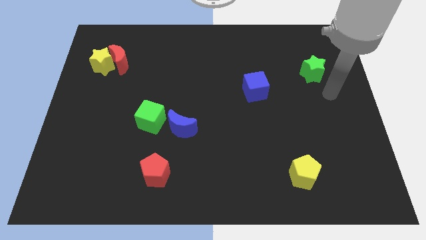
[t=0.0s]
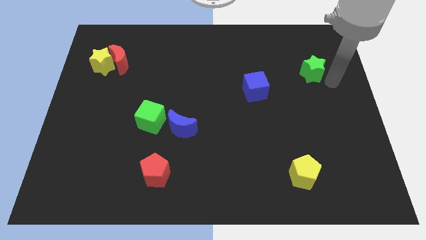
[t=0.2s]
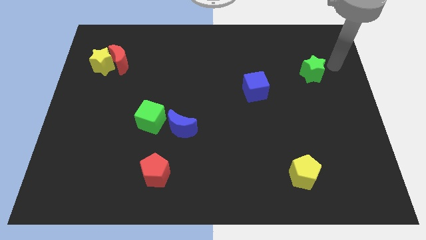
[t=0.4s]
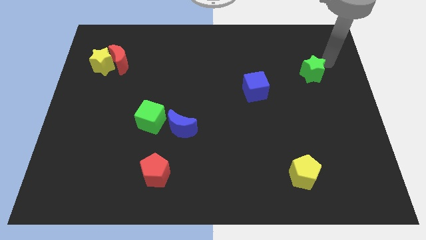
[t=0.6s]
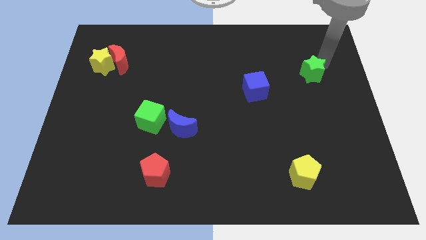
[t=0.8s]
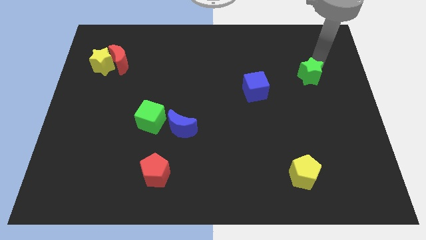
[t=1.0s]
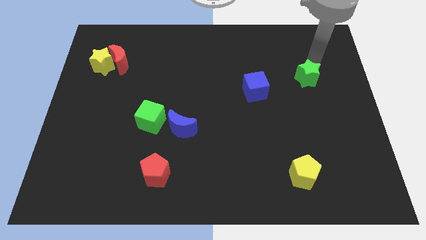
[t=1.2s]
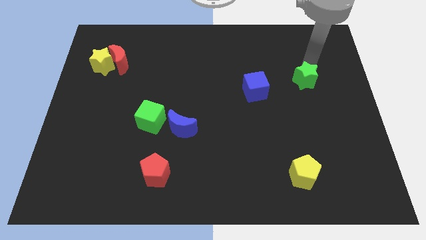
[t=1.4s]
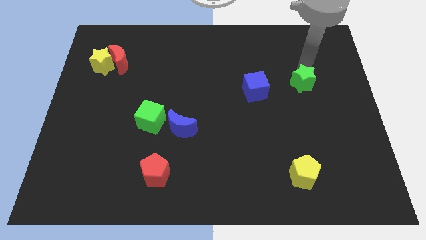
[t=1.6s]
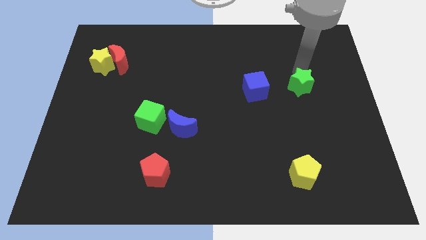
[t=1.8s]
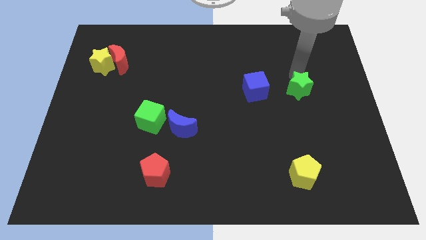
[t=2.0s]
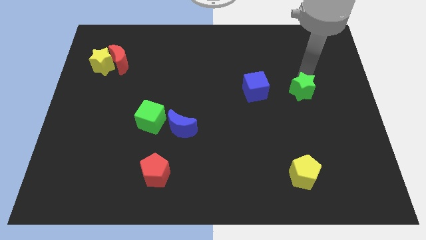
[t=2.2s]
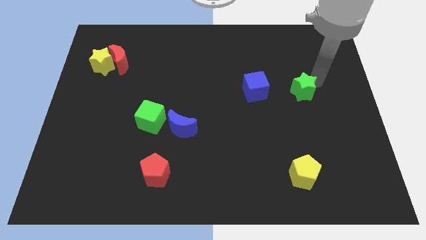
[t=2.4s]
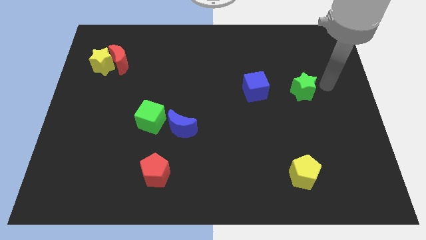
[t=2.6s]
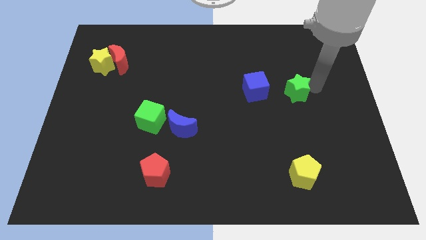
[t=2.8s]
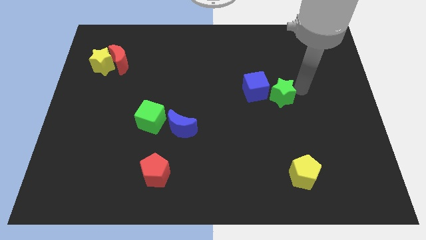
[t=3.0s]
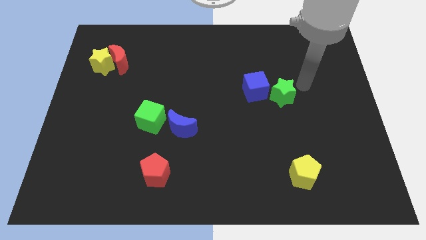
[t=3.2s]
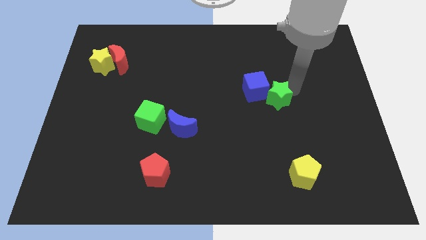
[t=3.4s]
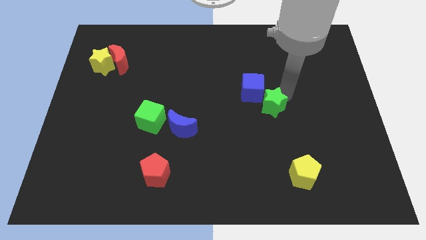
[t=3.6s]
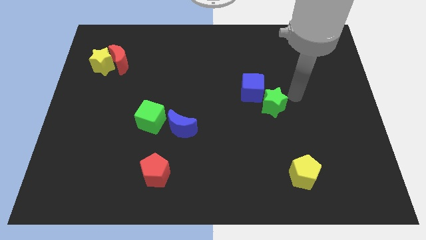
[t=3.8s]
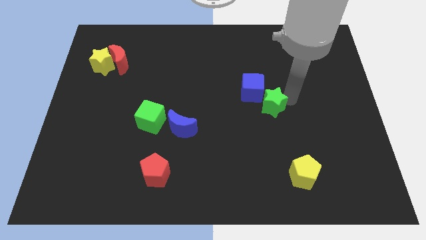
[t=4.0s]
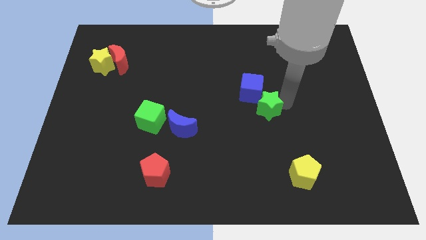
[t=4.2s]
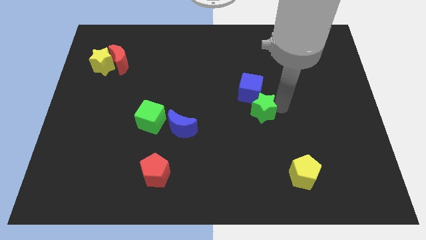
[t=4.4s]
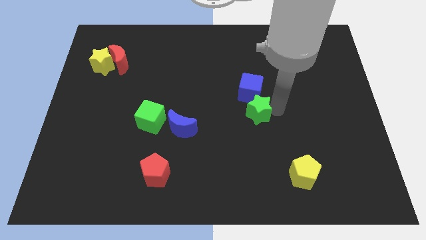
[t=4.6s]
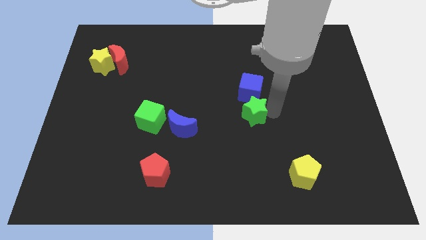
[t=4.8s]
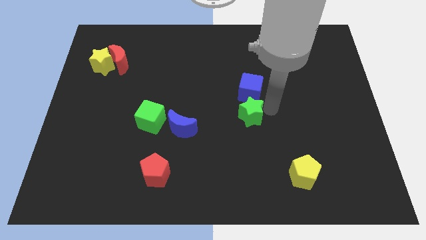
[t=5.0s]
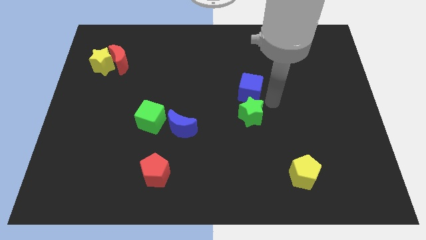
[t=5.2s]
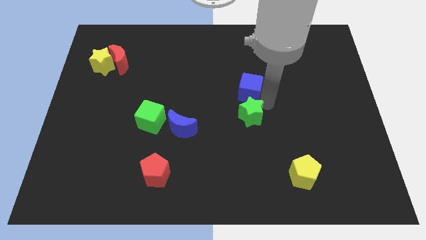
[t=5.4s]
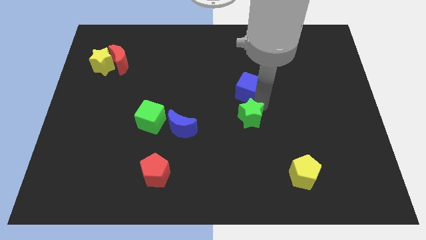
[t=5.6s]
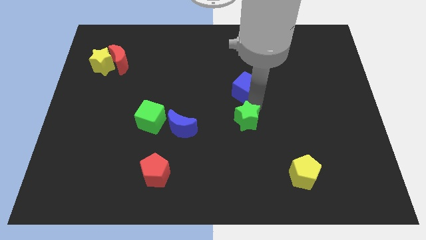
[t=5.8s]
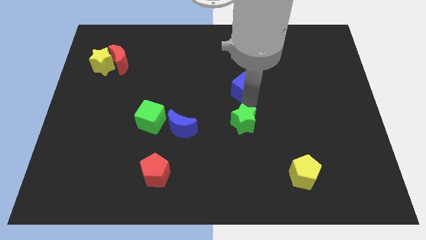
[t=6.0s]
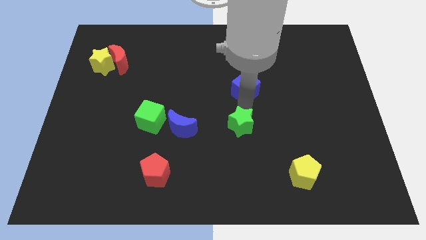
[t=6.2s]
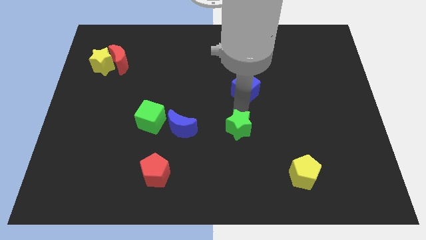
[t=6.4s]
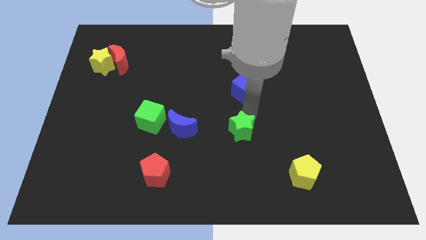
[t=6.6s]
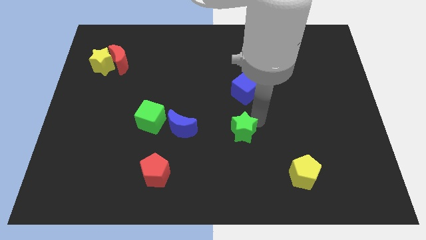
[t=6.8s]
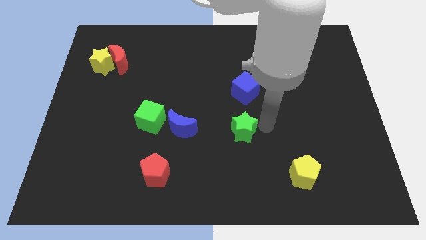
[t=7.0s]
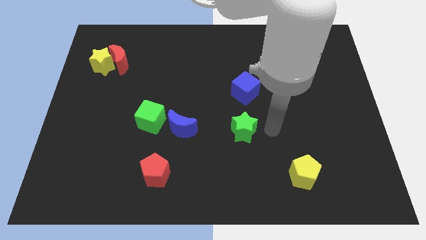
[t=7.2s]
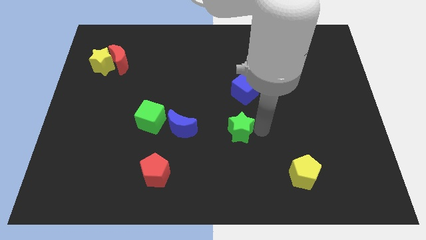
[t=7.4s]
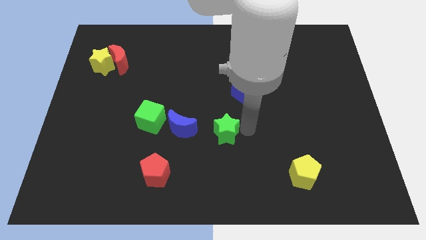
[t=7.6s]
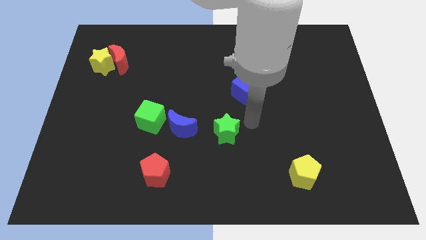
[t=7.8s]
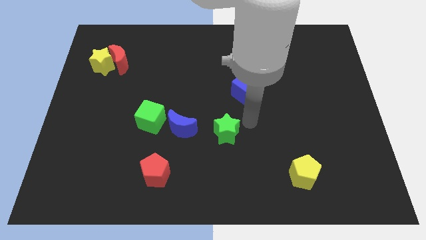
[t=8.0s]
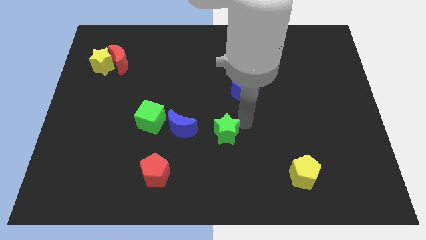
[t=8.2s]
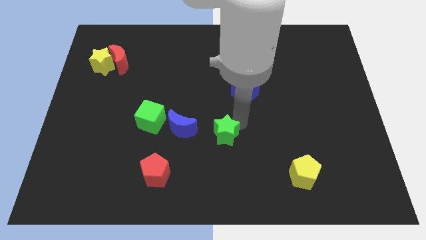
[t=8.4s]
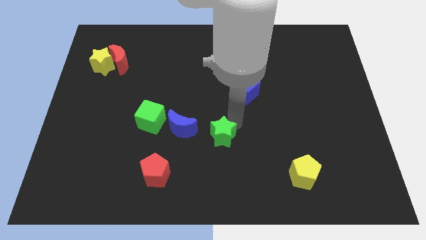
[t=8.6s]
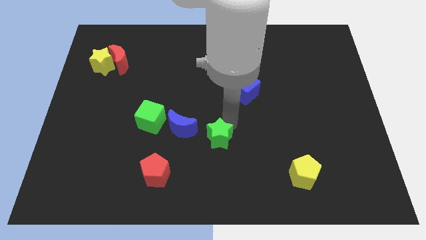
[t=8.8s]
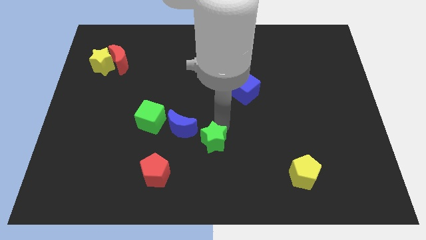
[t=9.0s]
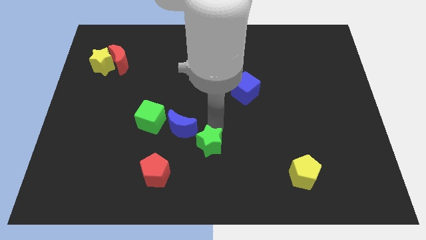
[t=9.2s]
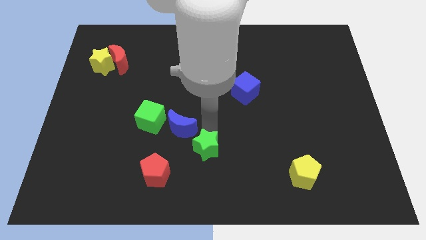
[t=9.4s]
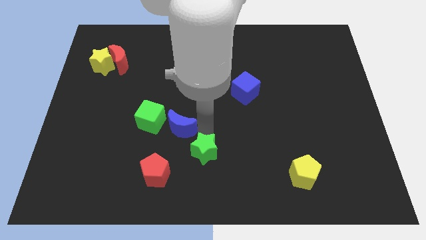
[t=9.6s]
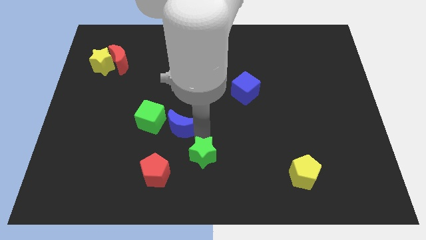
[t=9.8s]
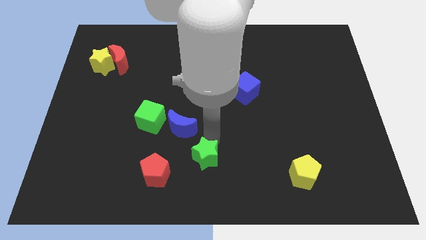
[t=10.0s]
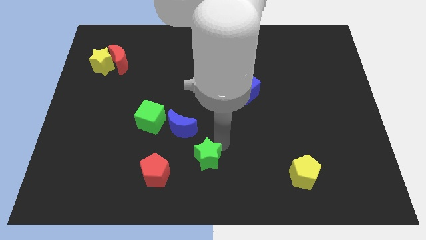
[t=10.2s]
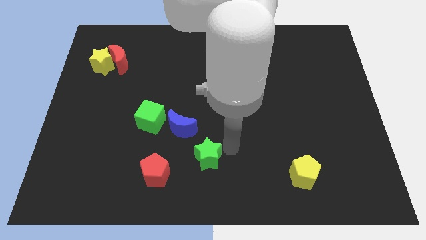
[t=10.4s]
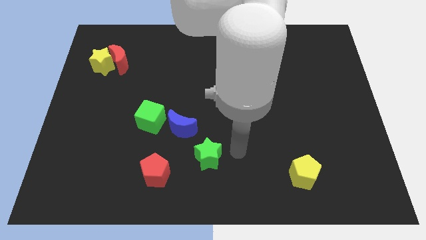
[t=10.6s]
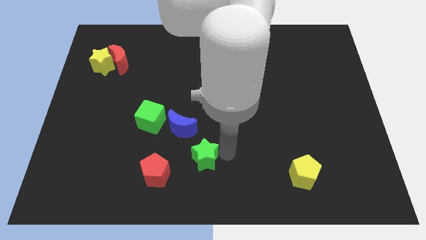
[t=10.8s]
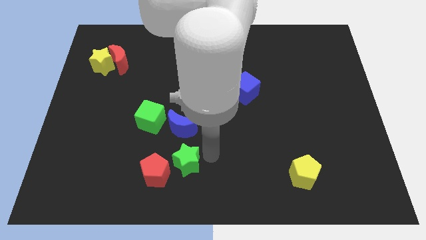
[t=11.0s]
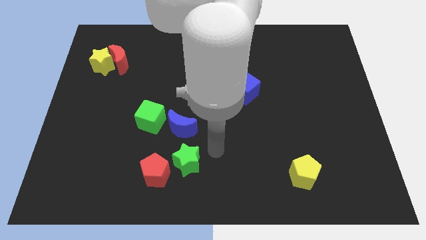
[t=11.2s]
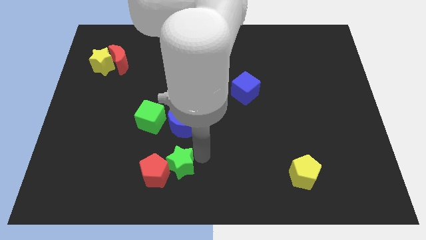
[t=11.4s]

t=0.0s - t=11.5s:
move the green star next to the red pentagon

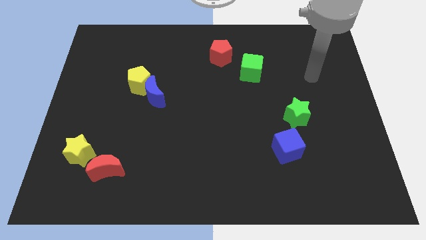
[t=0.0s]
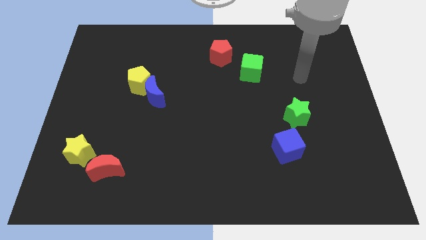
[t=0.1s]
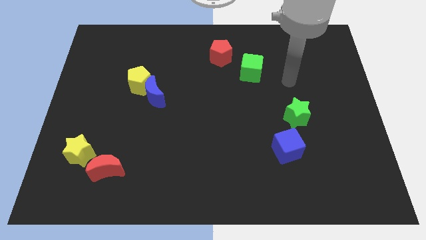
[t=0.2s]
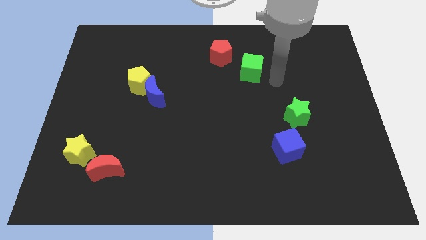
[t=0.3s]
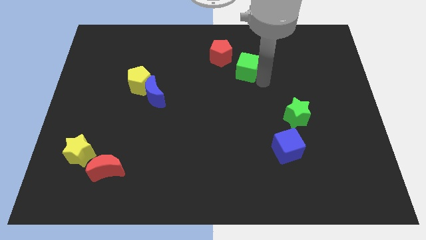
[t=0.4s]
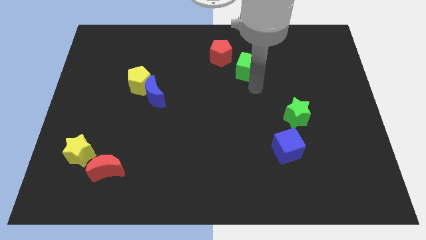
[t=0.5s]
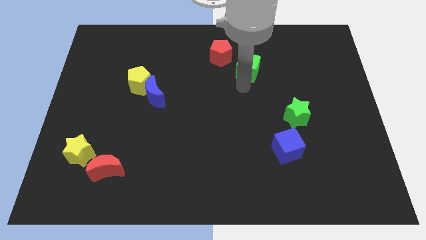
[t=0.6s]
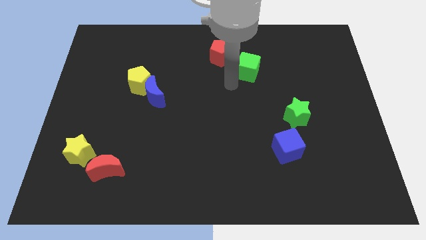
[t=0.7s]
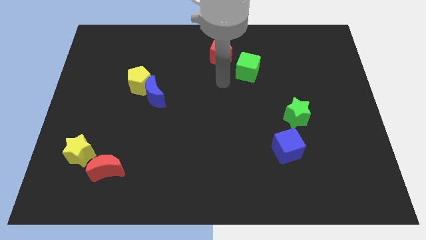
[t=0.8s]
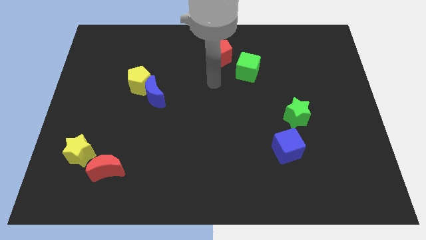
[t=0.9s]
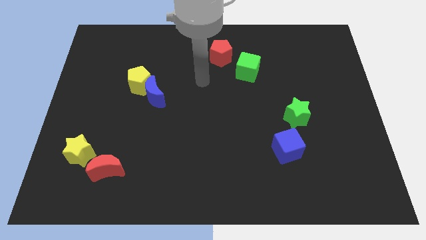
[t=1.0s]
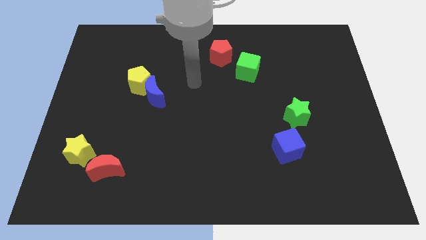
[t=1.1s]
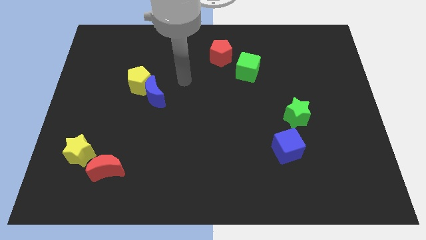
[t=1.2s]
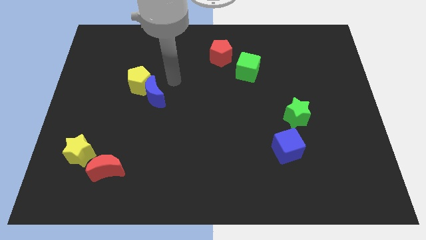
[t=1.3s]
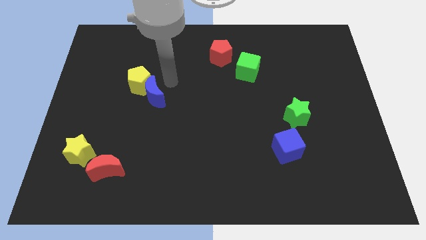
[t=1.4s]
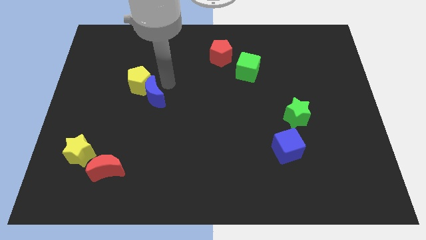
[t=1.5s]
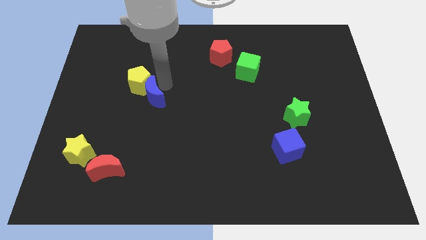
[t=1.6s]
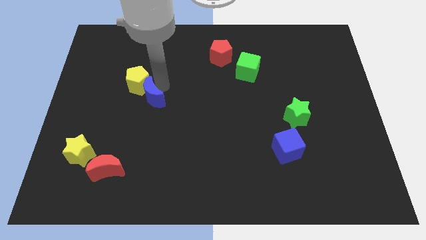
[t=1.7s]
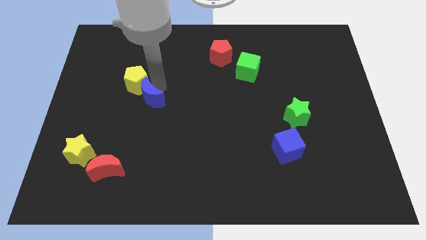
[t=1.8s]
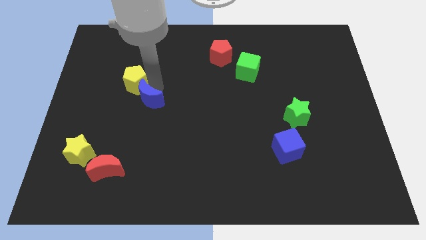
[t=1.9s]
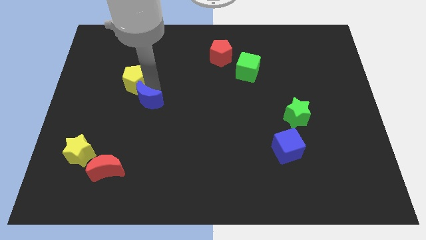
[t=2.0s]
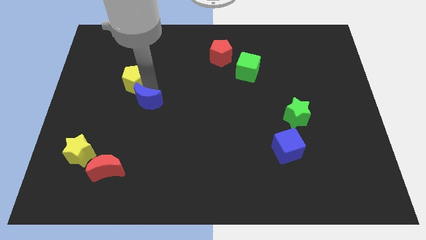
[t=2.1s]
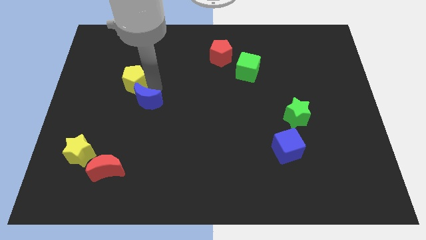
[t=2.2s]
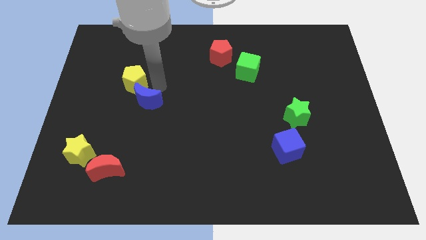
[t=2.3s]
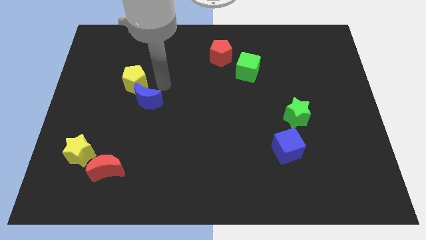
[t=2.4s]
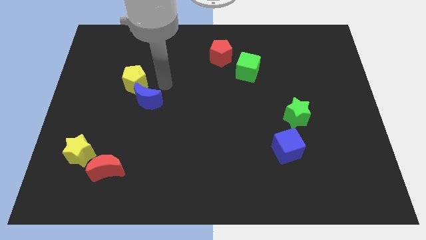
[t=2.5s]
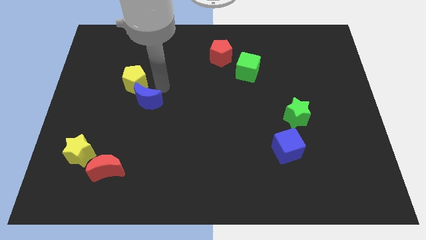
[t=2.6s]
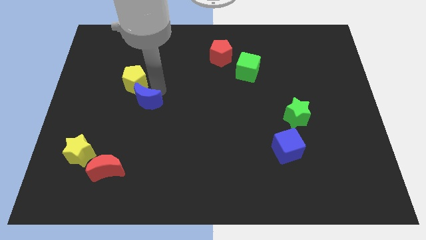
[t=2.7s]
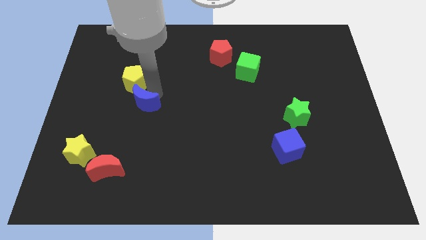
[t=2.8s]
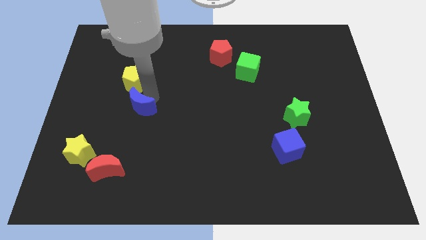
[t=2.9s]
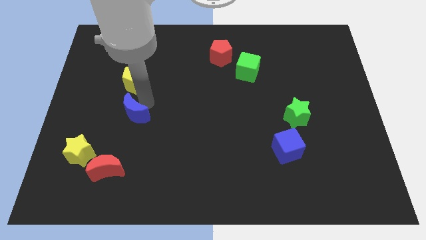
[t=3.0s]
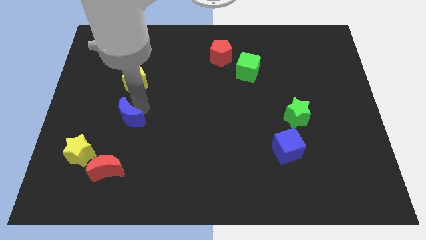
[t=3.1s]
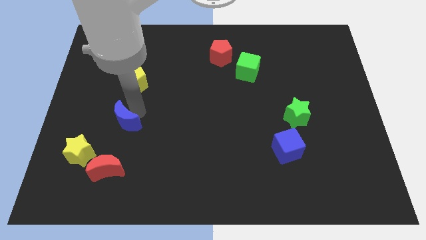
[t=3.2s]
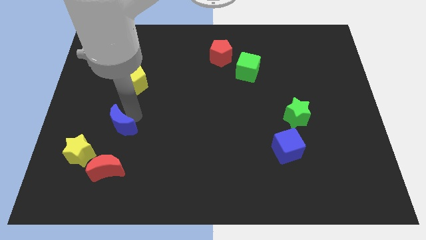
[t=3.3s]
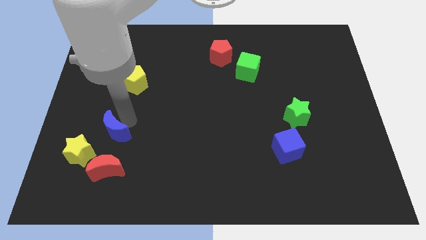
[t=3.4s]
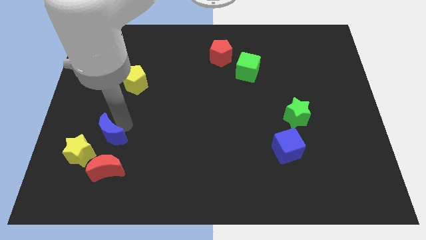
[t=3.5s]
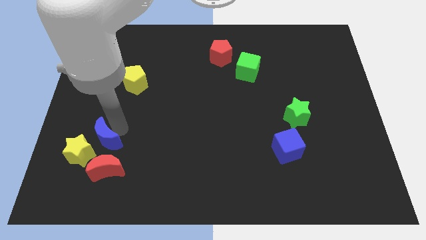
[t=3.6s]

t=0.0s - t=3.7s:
push the blue moon next to the yellow star
